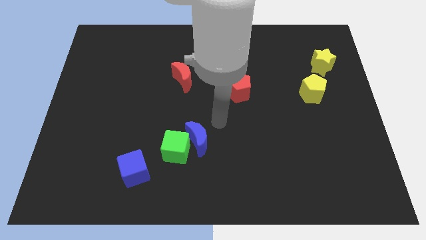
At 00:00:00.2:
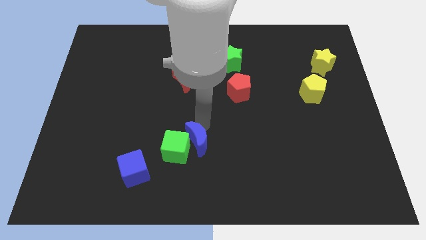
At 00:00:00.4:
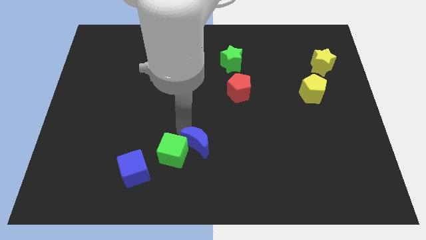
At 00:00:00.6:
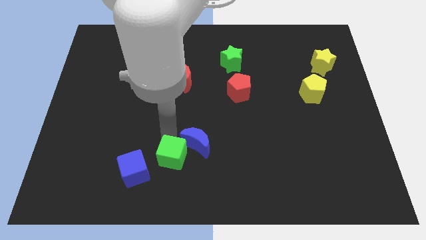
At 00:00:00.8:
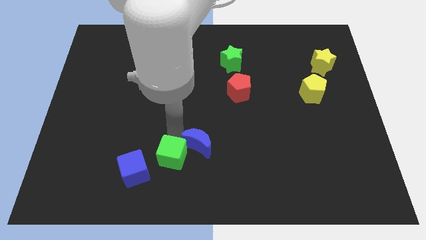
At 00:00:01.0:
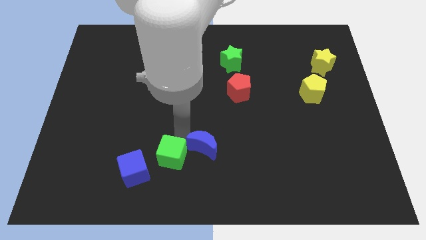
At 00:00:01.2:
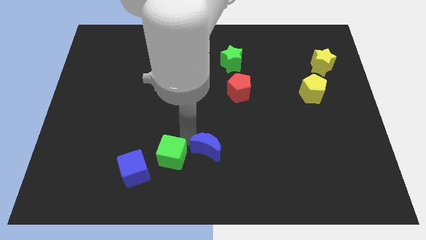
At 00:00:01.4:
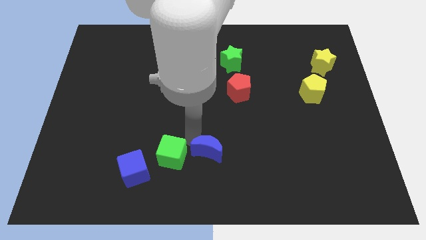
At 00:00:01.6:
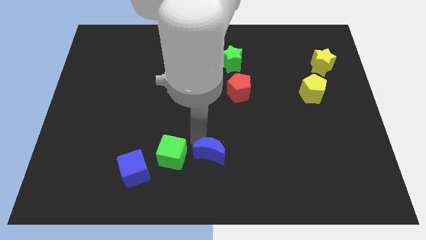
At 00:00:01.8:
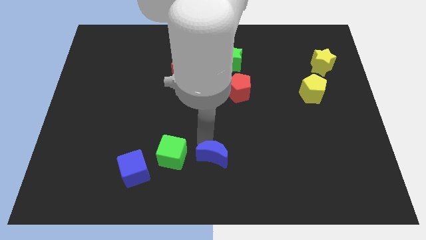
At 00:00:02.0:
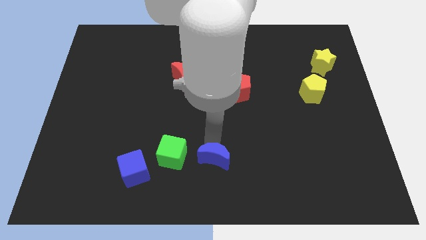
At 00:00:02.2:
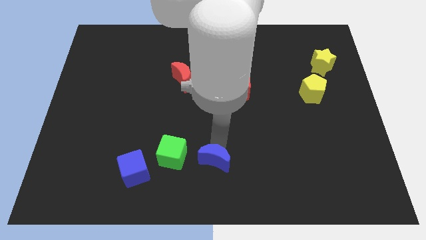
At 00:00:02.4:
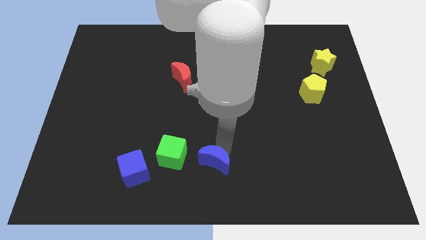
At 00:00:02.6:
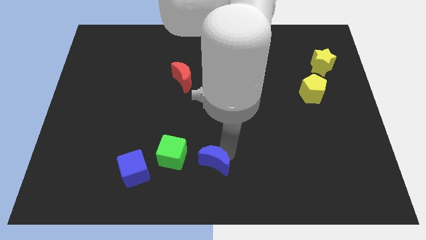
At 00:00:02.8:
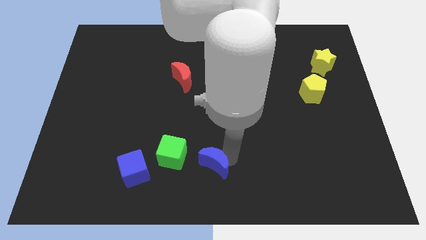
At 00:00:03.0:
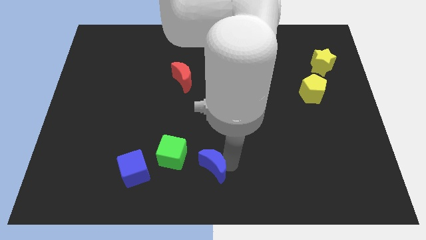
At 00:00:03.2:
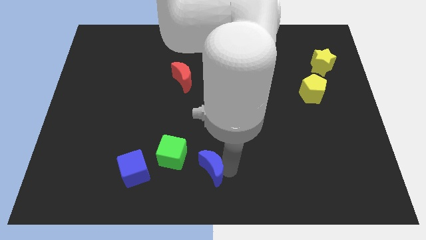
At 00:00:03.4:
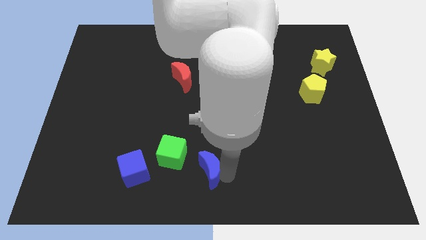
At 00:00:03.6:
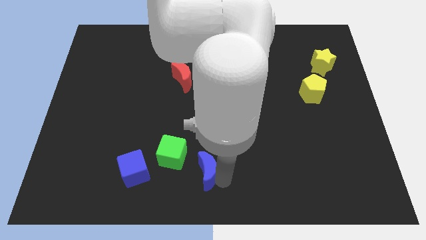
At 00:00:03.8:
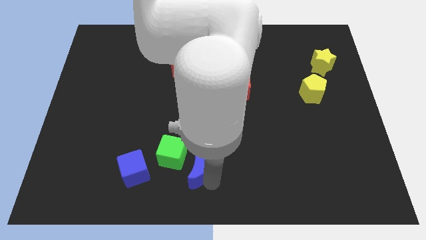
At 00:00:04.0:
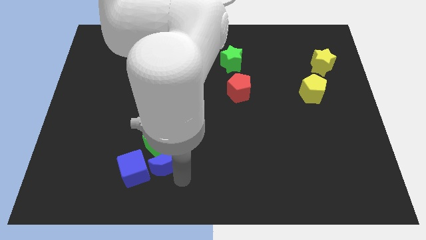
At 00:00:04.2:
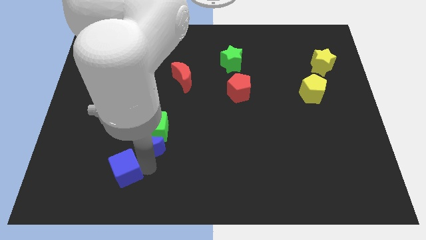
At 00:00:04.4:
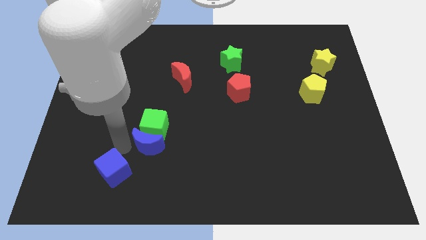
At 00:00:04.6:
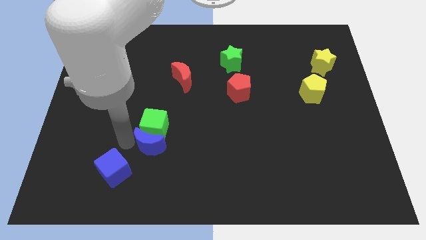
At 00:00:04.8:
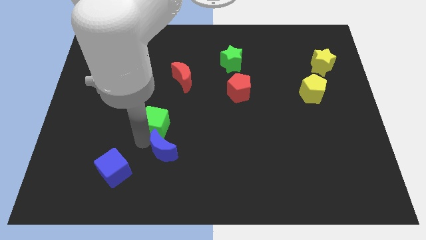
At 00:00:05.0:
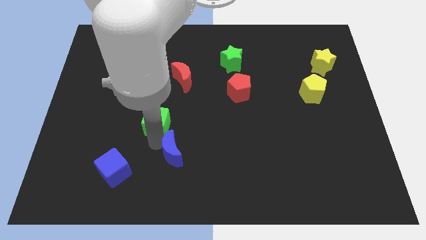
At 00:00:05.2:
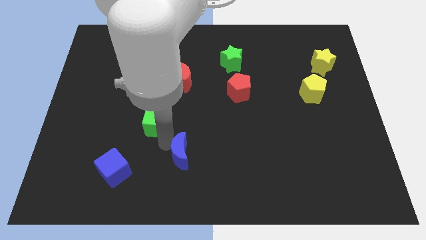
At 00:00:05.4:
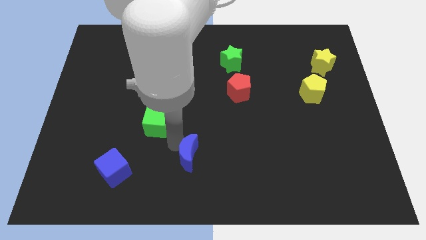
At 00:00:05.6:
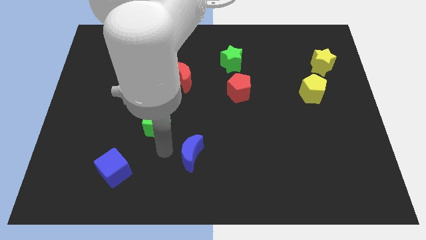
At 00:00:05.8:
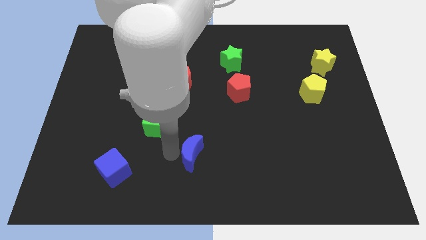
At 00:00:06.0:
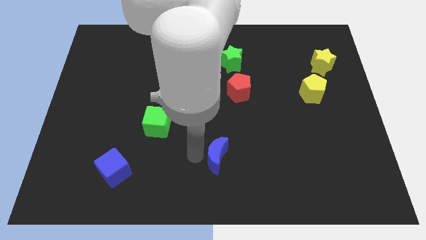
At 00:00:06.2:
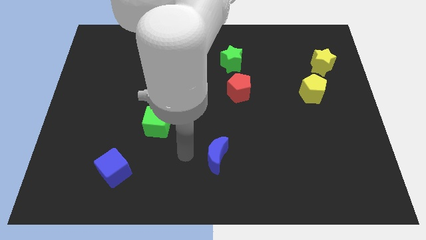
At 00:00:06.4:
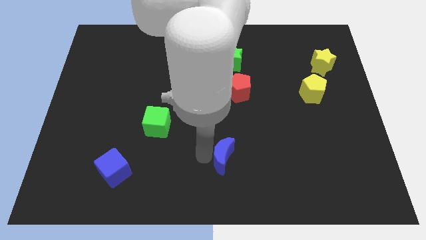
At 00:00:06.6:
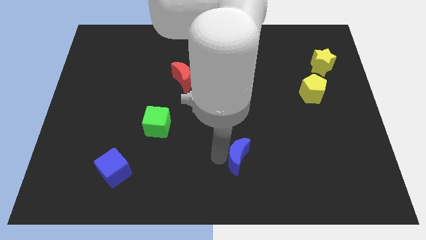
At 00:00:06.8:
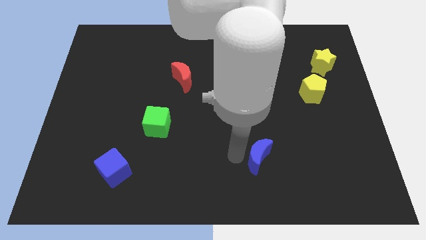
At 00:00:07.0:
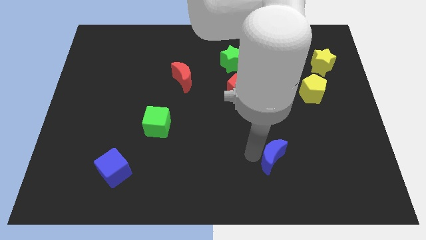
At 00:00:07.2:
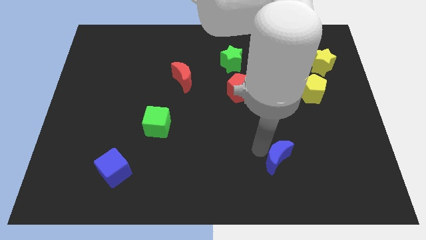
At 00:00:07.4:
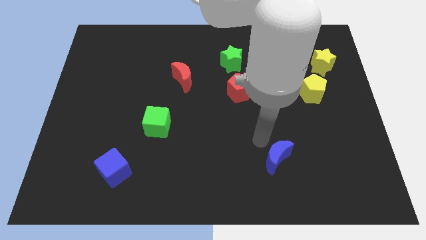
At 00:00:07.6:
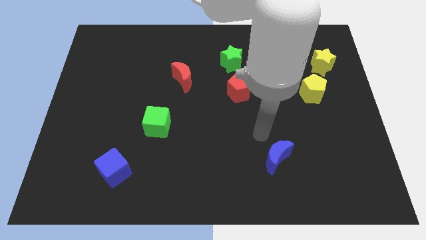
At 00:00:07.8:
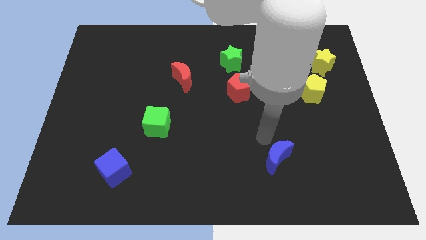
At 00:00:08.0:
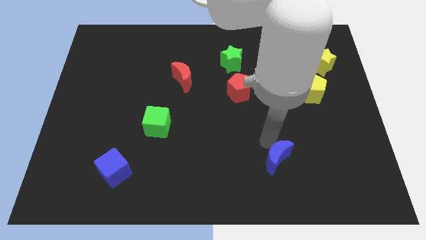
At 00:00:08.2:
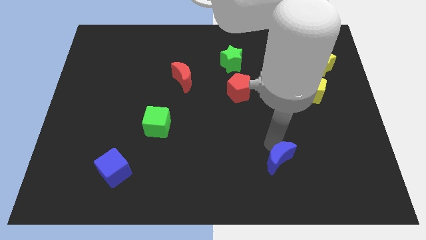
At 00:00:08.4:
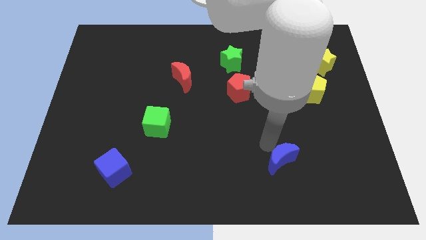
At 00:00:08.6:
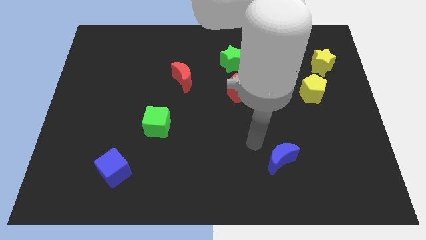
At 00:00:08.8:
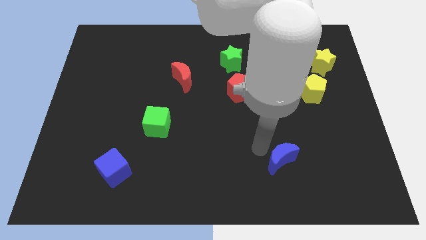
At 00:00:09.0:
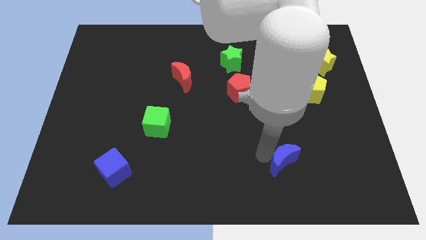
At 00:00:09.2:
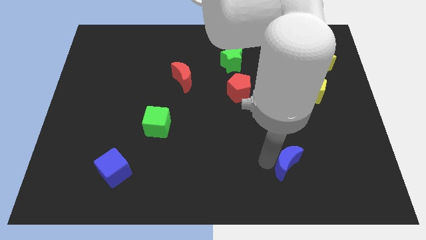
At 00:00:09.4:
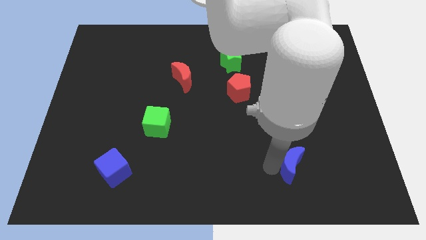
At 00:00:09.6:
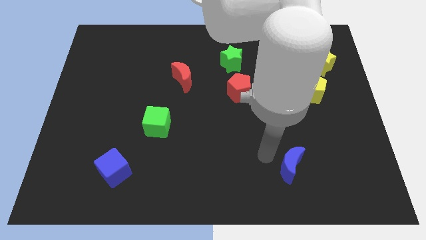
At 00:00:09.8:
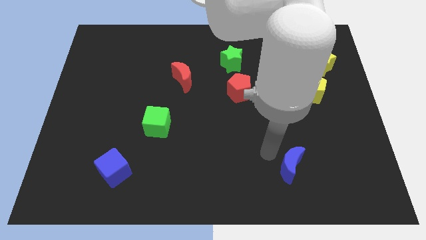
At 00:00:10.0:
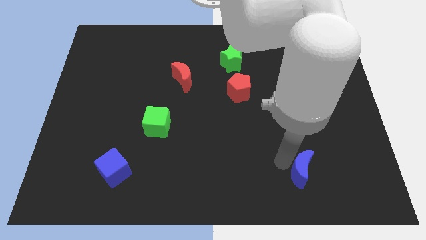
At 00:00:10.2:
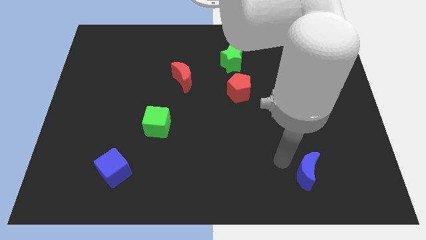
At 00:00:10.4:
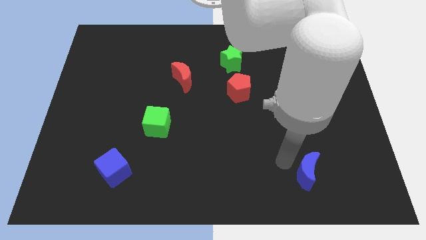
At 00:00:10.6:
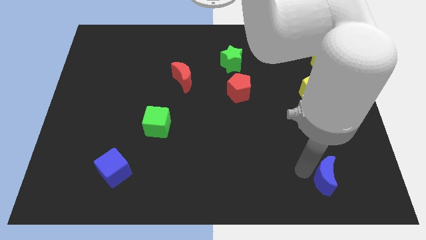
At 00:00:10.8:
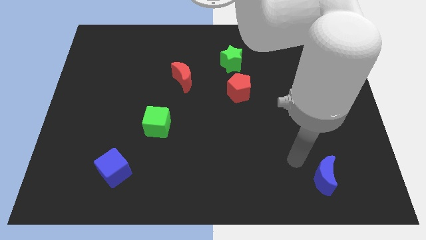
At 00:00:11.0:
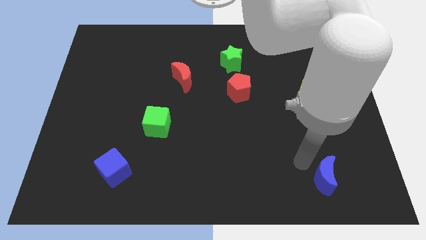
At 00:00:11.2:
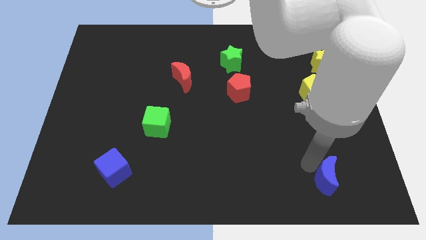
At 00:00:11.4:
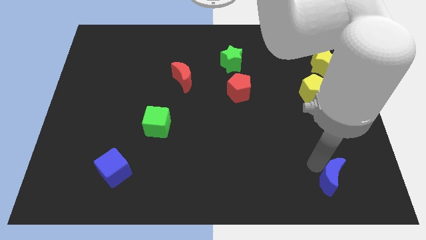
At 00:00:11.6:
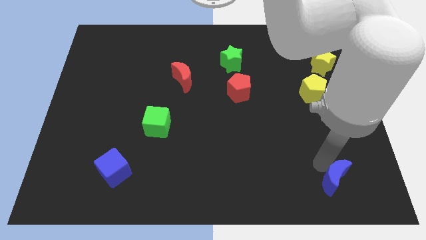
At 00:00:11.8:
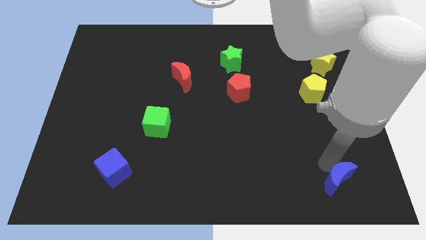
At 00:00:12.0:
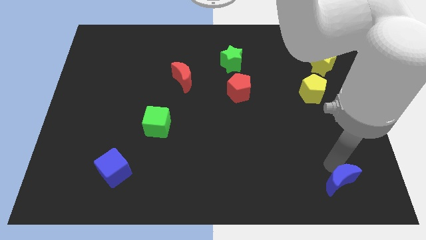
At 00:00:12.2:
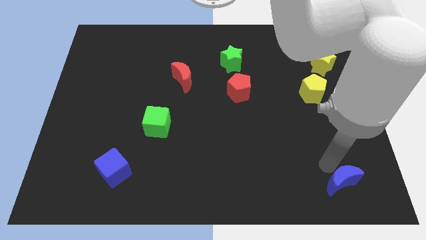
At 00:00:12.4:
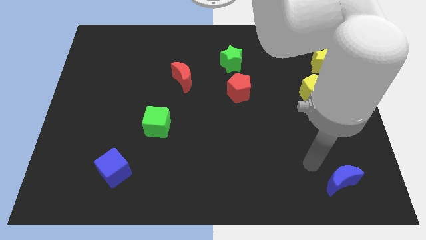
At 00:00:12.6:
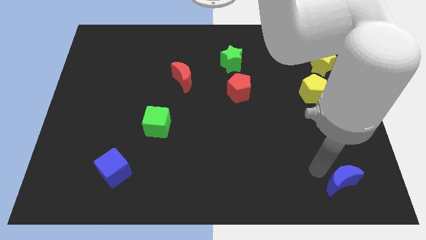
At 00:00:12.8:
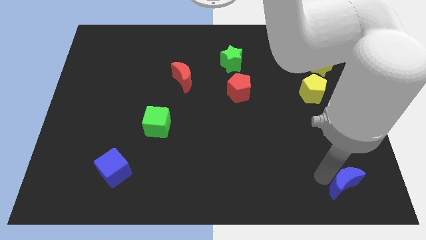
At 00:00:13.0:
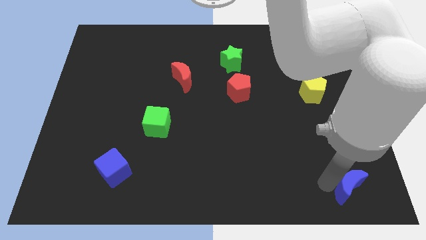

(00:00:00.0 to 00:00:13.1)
move the blue moon to the bottom right of the board
